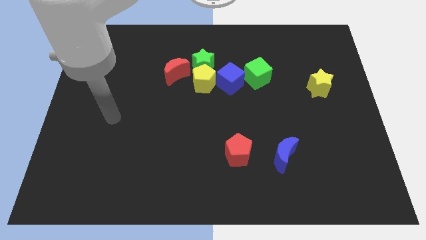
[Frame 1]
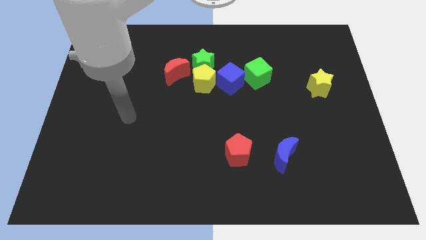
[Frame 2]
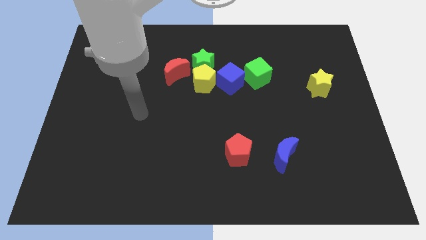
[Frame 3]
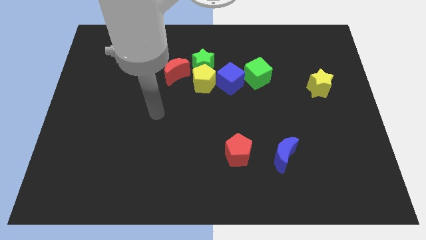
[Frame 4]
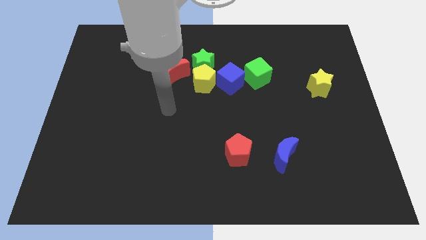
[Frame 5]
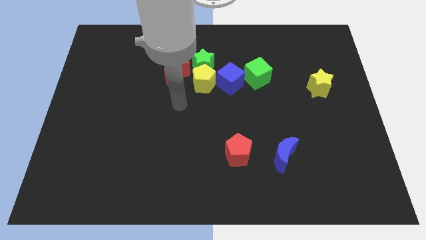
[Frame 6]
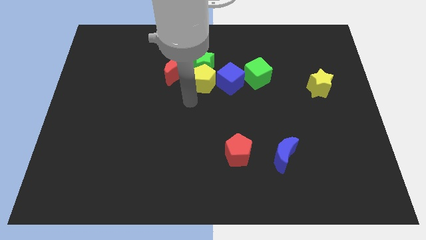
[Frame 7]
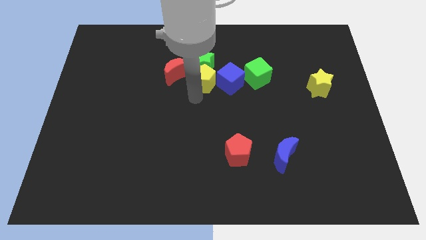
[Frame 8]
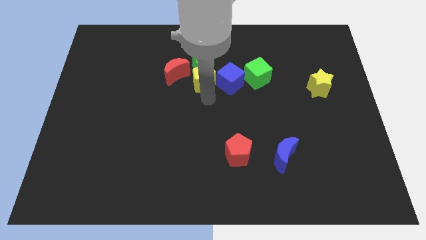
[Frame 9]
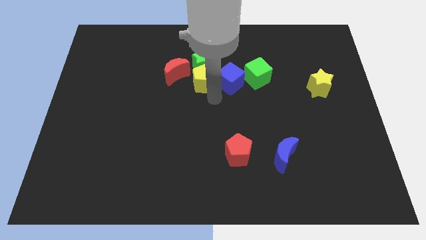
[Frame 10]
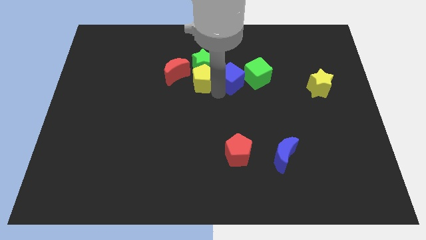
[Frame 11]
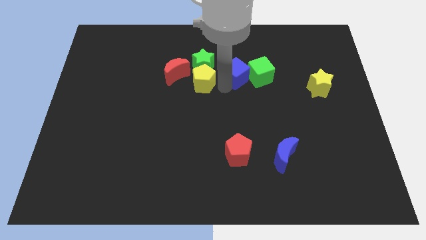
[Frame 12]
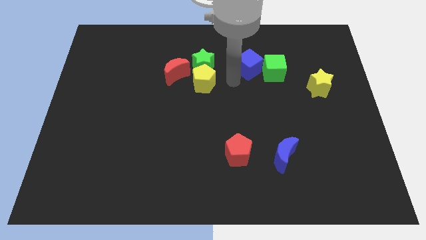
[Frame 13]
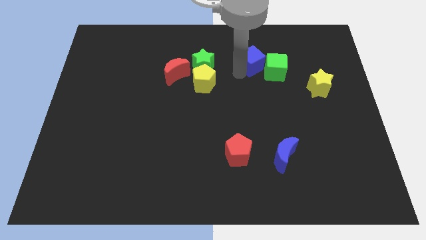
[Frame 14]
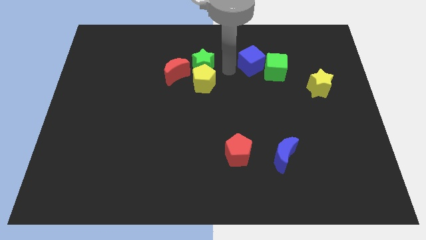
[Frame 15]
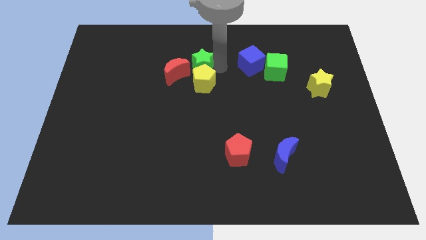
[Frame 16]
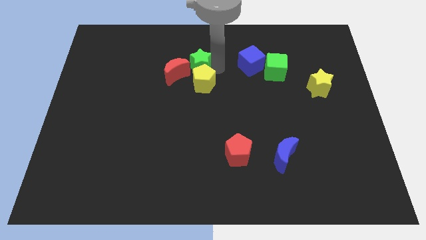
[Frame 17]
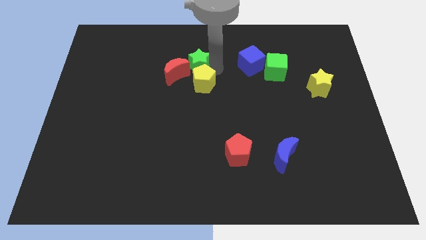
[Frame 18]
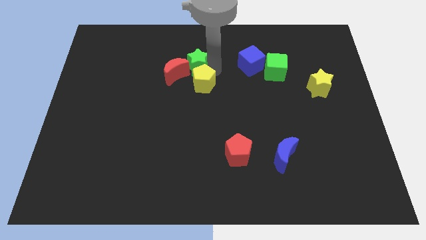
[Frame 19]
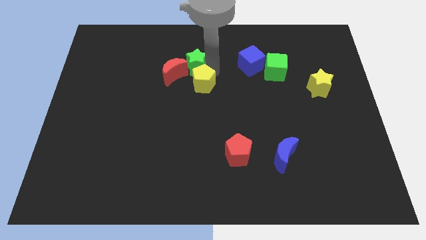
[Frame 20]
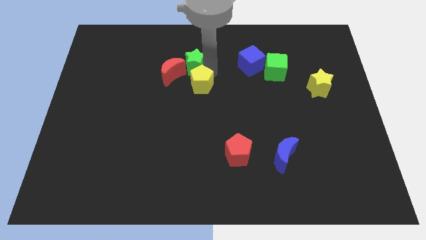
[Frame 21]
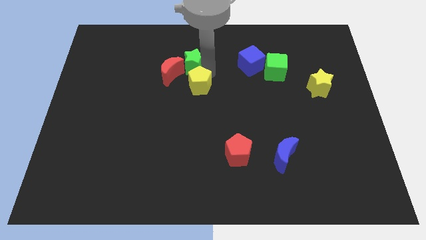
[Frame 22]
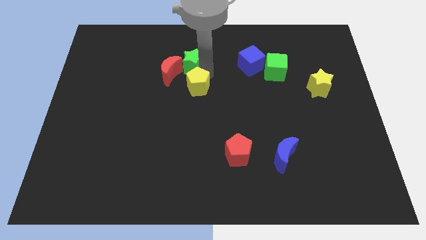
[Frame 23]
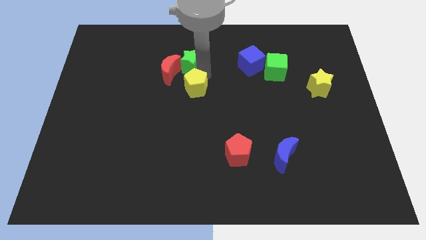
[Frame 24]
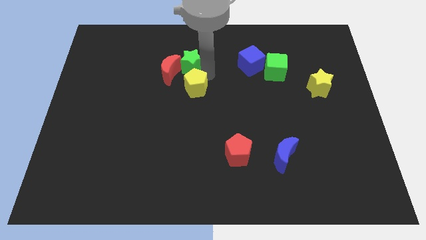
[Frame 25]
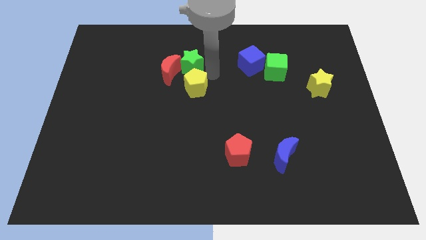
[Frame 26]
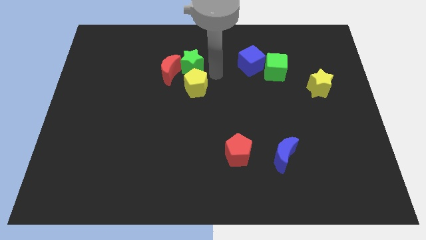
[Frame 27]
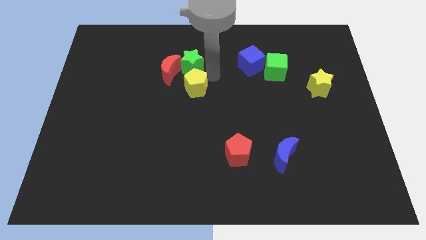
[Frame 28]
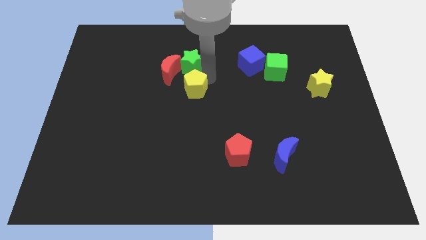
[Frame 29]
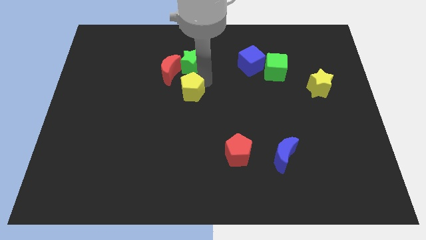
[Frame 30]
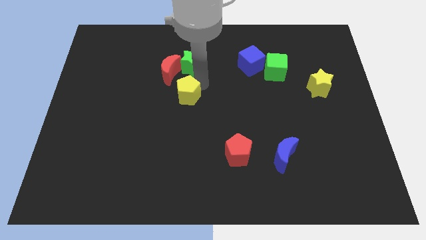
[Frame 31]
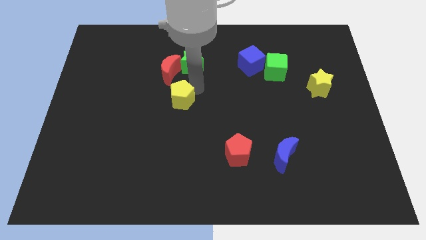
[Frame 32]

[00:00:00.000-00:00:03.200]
push the yellow pentagon down and then left a bit

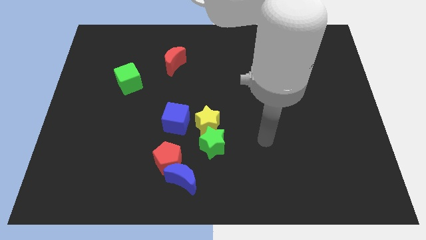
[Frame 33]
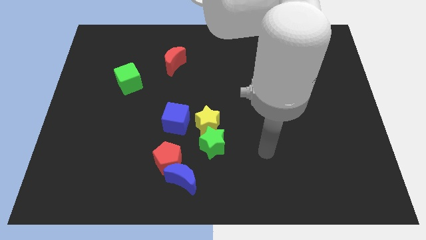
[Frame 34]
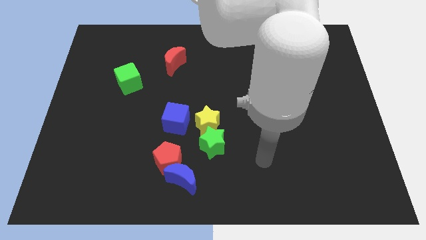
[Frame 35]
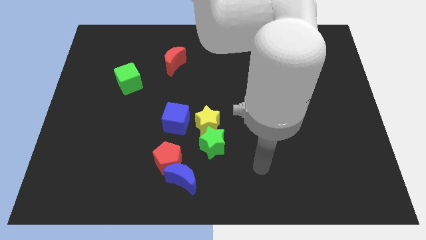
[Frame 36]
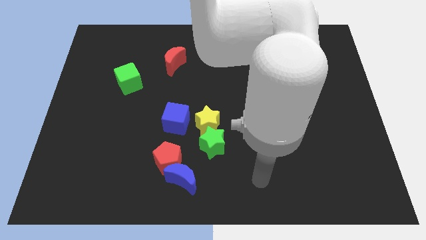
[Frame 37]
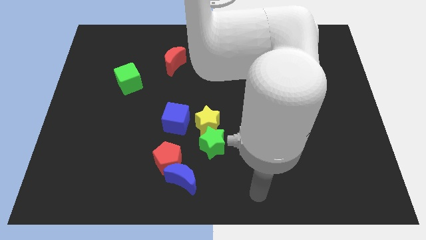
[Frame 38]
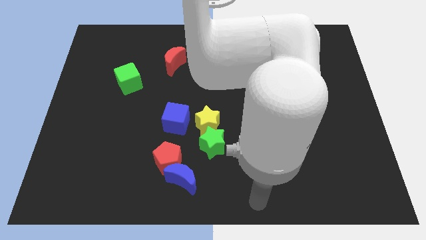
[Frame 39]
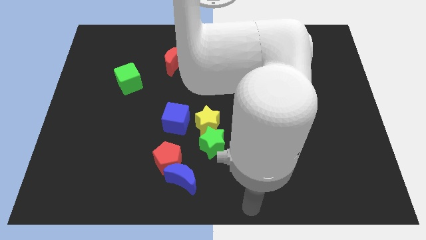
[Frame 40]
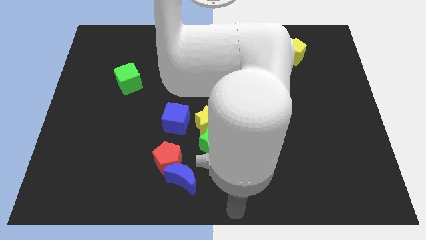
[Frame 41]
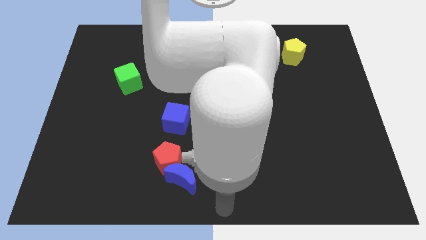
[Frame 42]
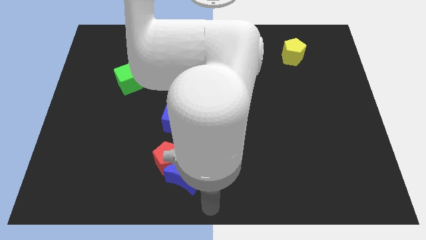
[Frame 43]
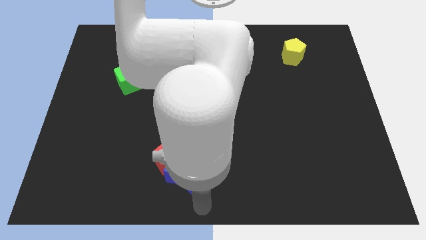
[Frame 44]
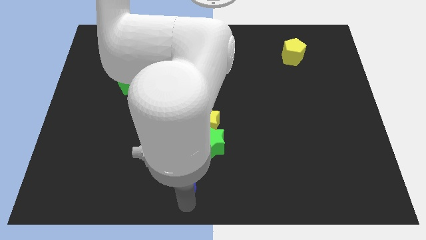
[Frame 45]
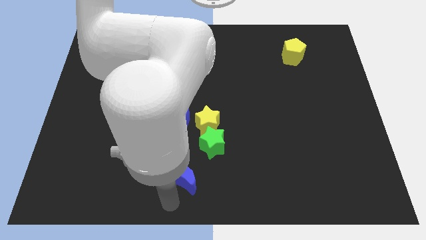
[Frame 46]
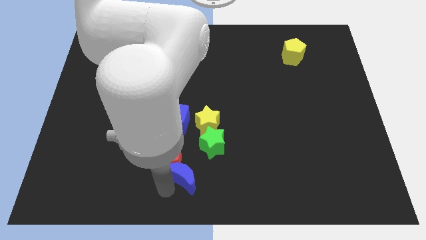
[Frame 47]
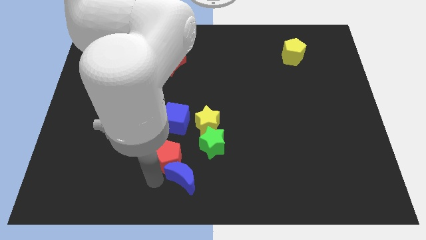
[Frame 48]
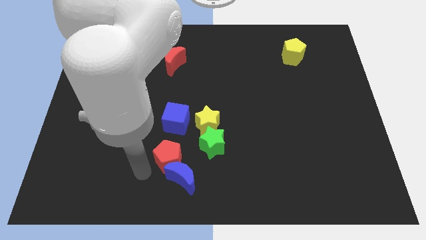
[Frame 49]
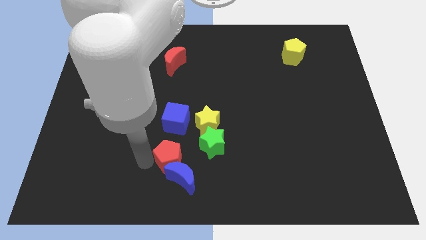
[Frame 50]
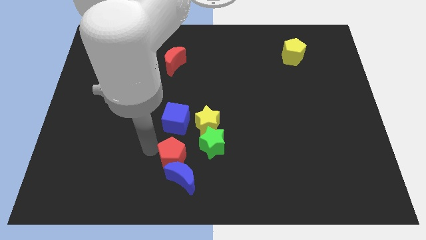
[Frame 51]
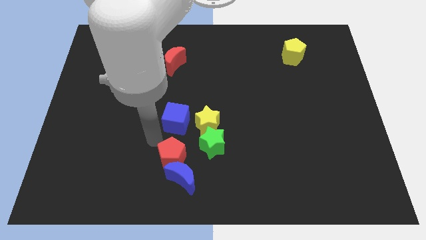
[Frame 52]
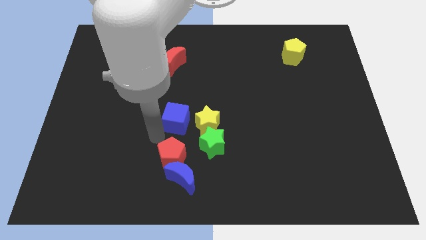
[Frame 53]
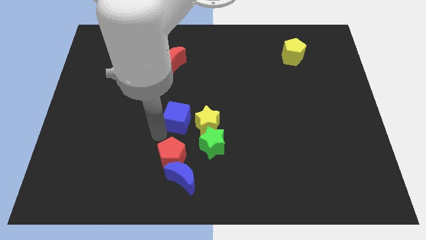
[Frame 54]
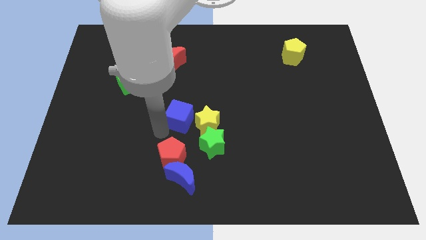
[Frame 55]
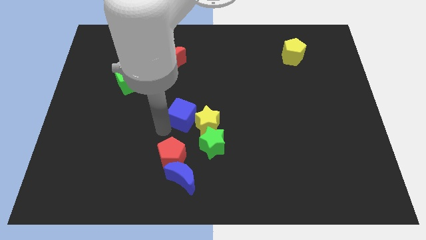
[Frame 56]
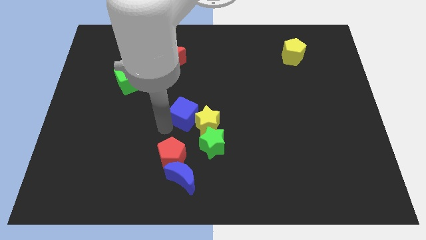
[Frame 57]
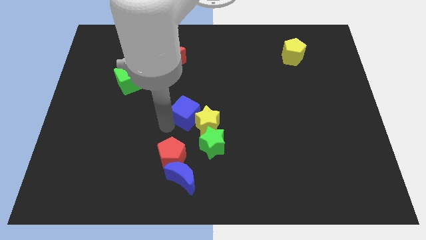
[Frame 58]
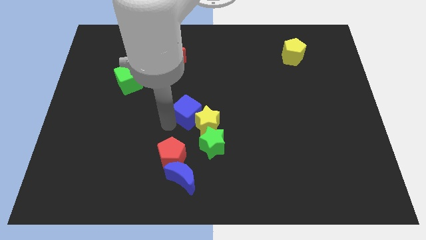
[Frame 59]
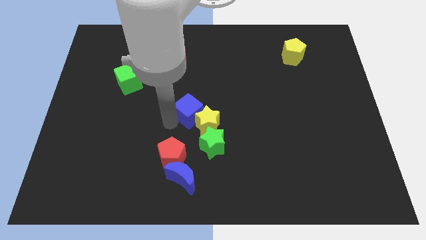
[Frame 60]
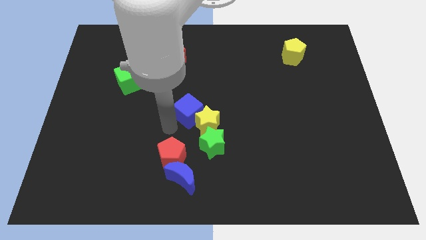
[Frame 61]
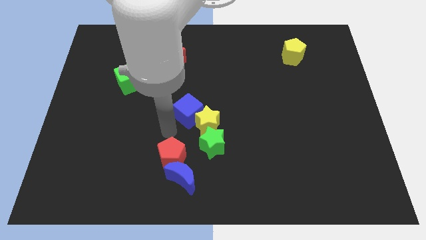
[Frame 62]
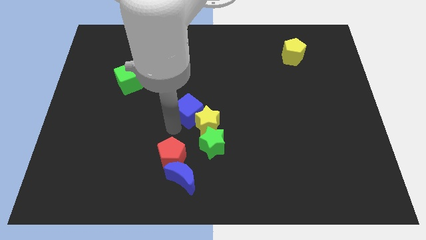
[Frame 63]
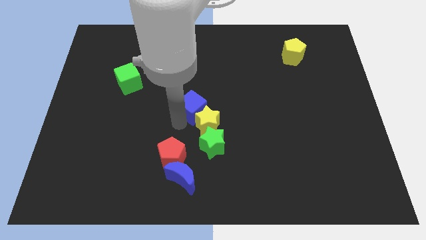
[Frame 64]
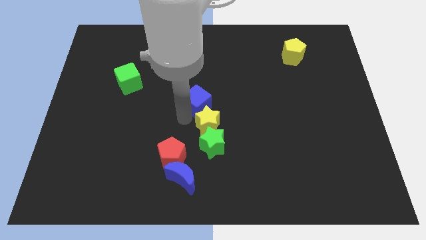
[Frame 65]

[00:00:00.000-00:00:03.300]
slightly slide the blue cube up and to the right

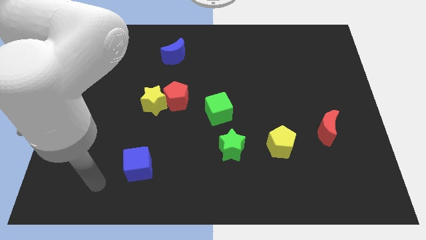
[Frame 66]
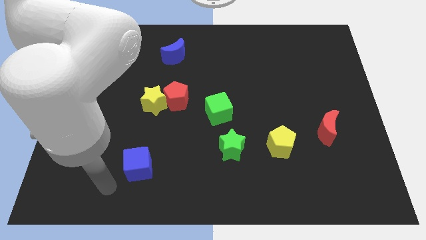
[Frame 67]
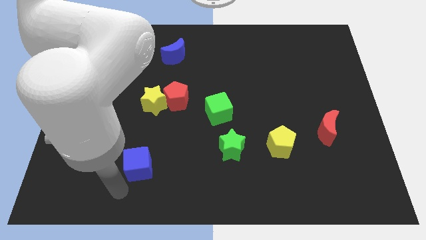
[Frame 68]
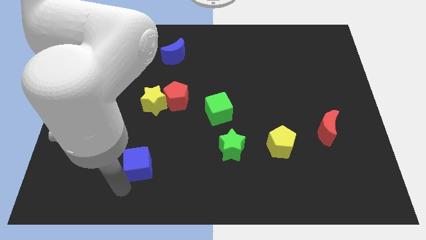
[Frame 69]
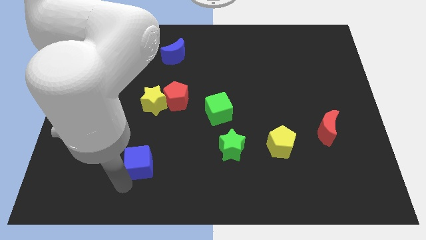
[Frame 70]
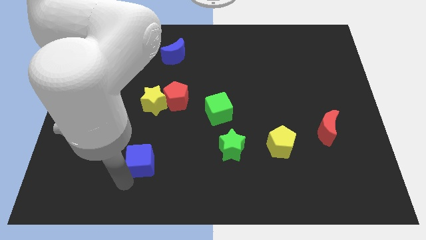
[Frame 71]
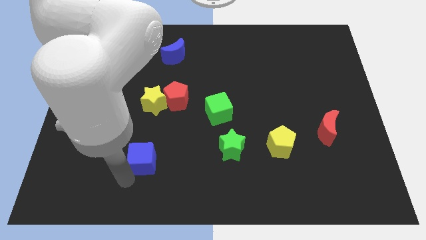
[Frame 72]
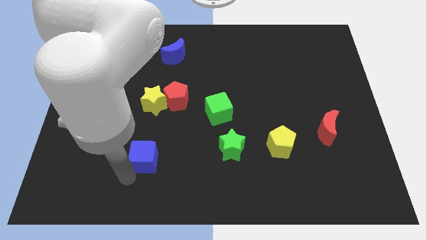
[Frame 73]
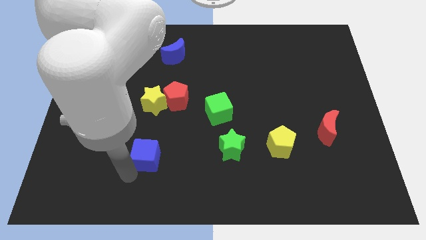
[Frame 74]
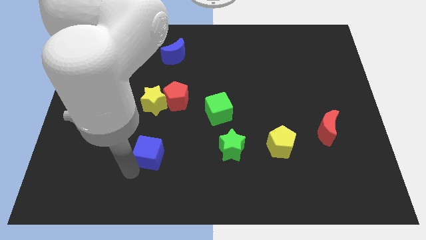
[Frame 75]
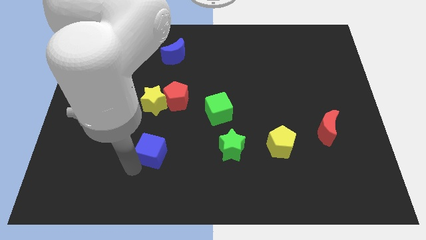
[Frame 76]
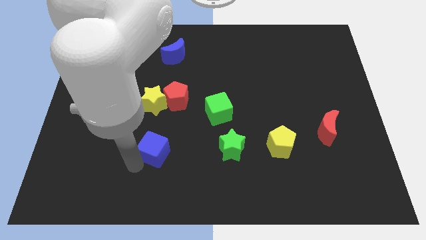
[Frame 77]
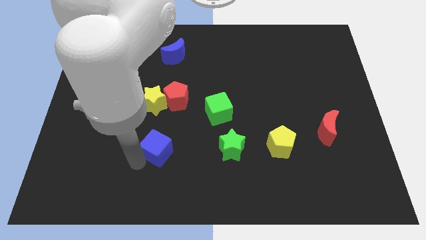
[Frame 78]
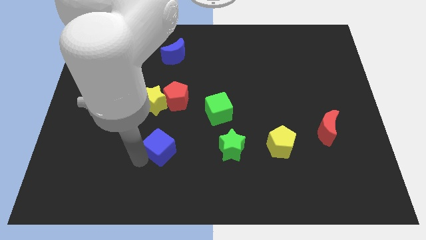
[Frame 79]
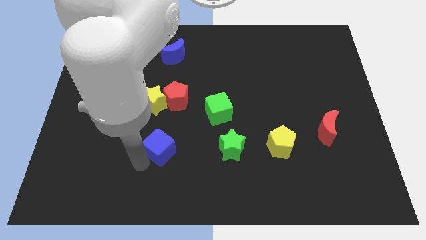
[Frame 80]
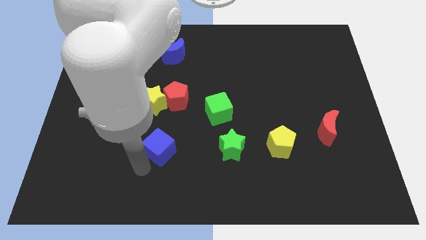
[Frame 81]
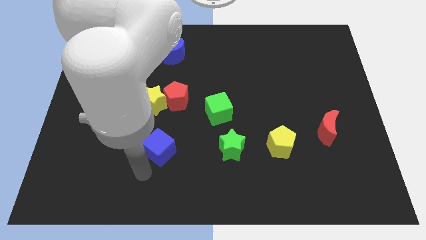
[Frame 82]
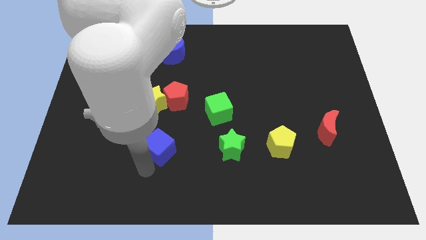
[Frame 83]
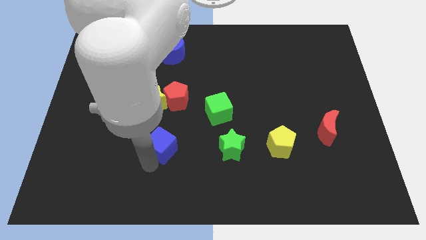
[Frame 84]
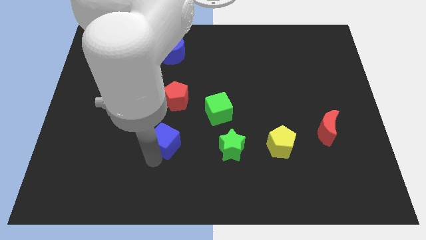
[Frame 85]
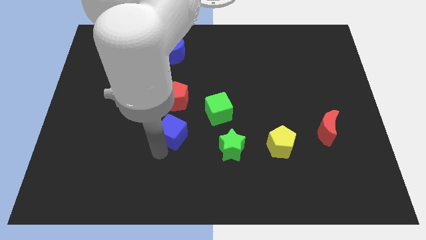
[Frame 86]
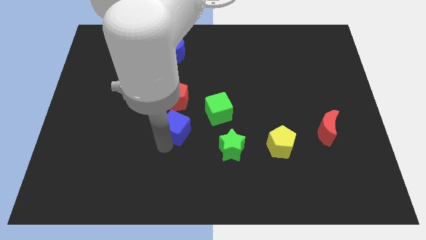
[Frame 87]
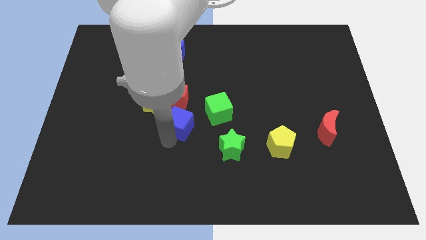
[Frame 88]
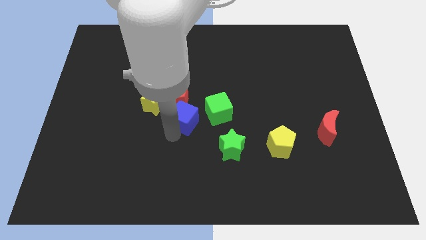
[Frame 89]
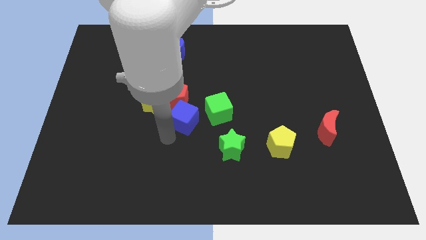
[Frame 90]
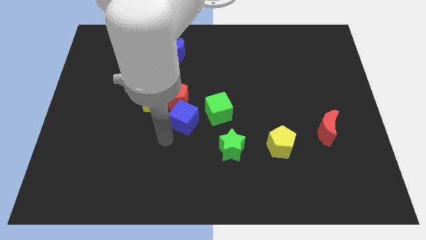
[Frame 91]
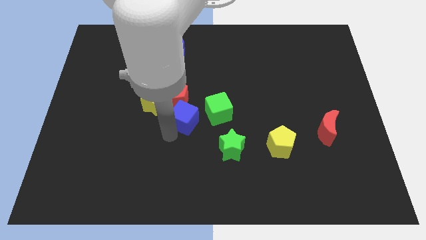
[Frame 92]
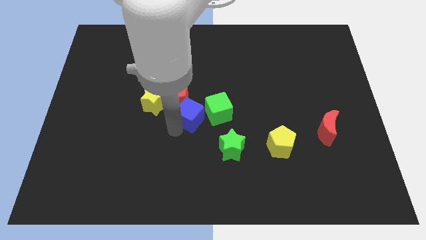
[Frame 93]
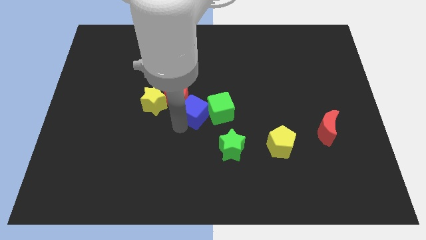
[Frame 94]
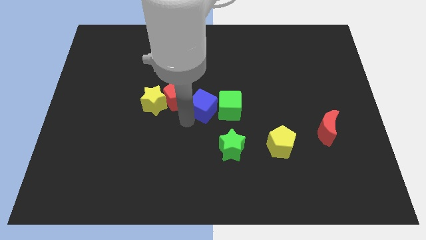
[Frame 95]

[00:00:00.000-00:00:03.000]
move the blue cube upwards and right diagonally
